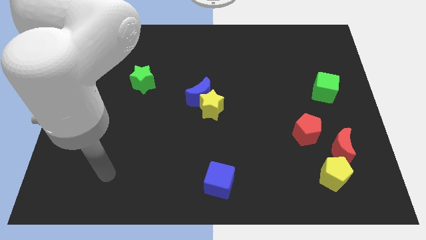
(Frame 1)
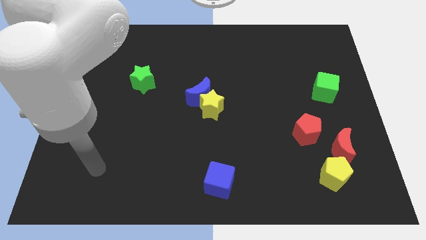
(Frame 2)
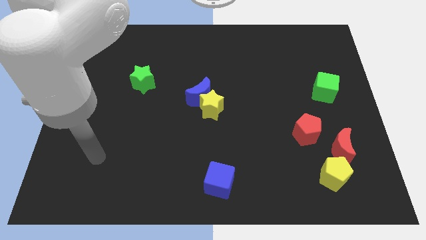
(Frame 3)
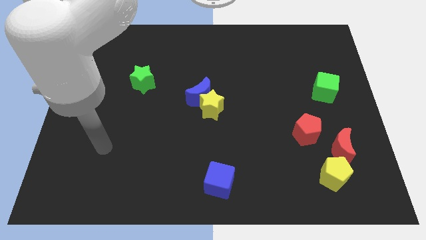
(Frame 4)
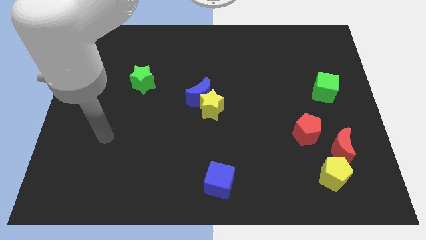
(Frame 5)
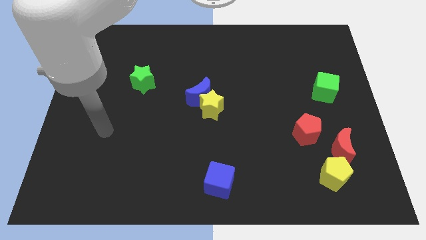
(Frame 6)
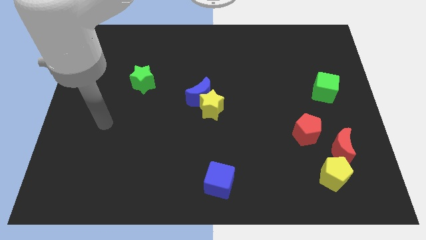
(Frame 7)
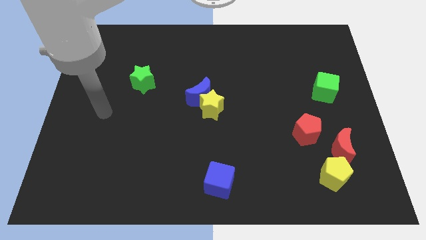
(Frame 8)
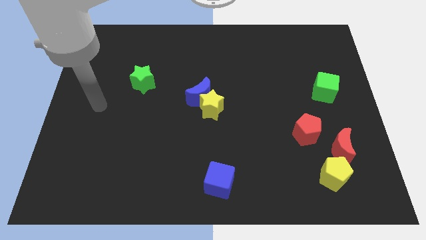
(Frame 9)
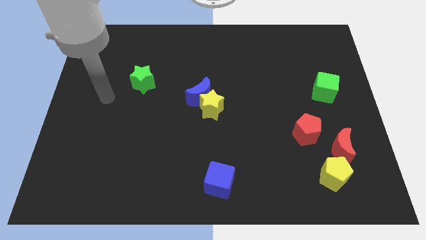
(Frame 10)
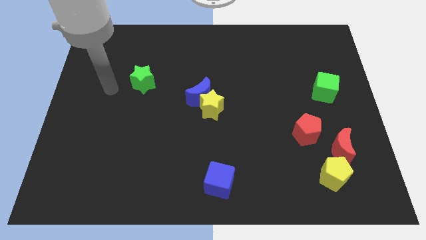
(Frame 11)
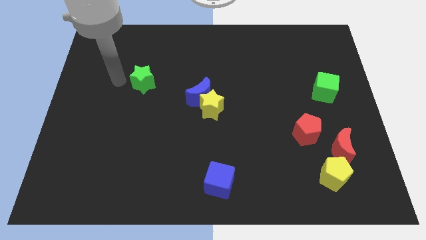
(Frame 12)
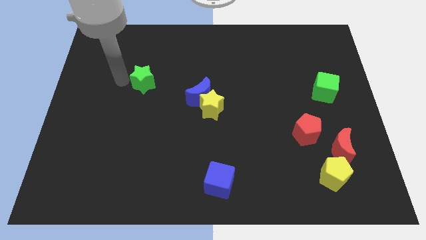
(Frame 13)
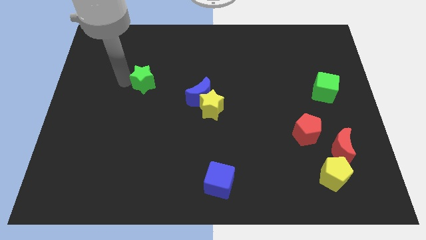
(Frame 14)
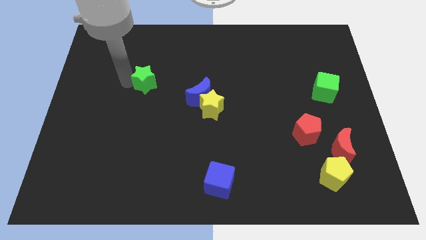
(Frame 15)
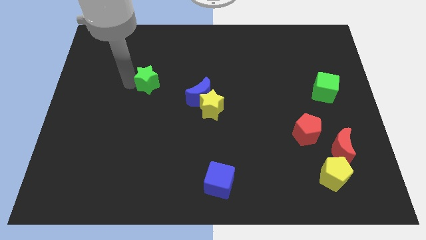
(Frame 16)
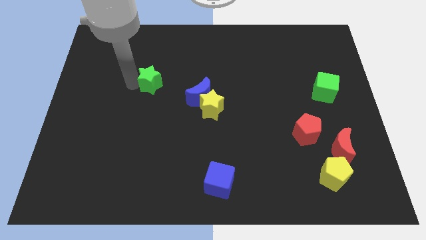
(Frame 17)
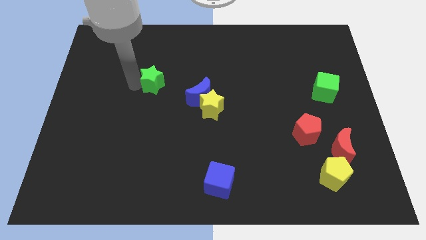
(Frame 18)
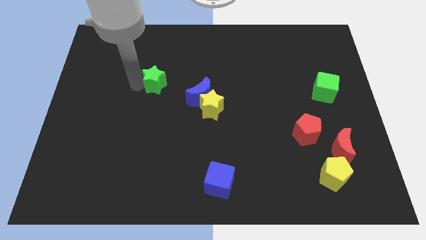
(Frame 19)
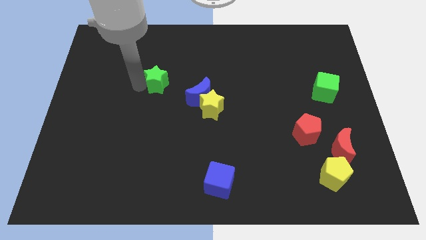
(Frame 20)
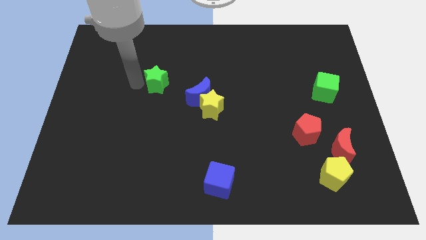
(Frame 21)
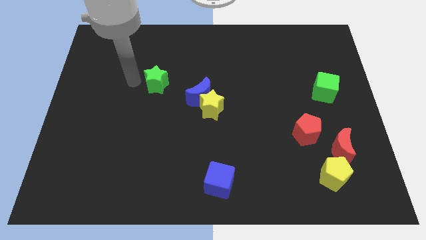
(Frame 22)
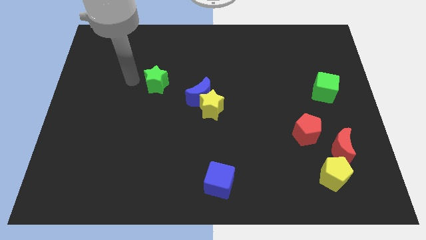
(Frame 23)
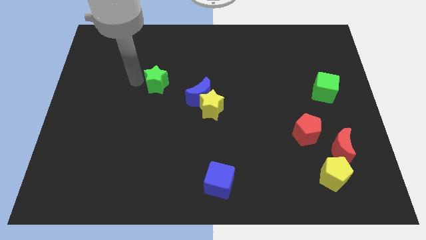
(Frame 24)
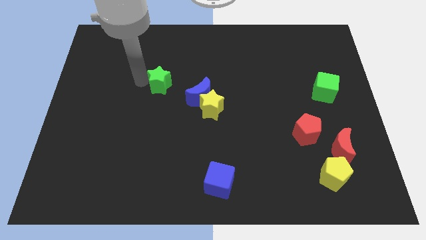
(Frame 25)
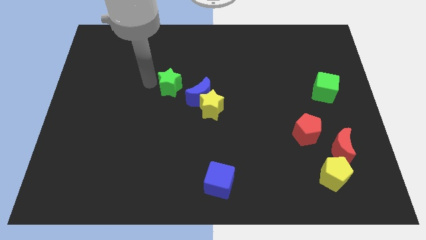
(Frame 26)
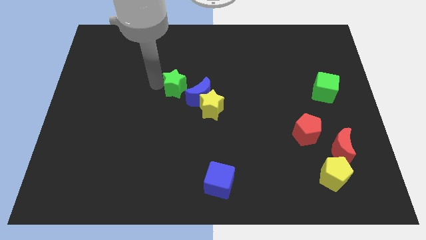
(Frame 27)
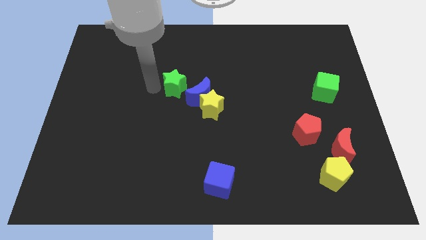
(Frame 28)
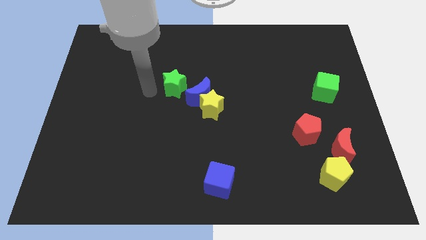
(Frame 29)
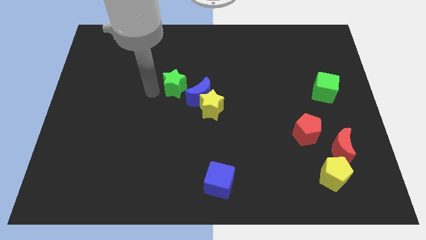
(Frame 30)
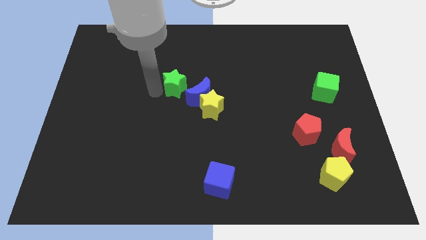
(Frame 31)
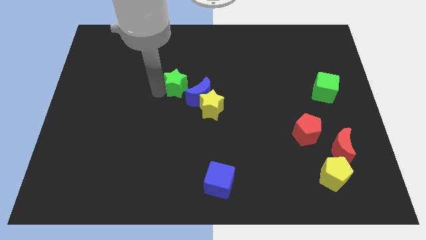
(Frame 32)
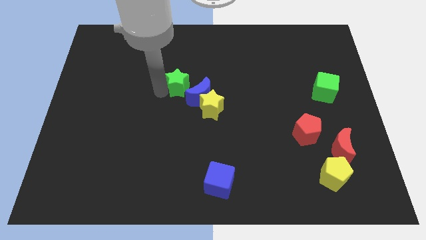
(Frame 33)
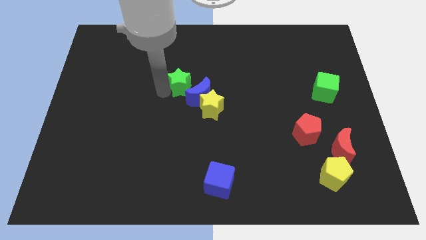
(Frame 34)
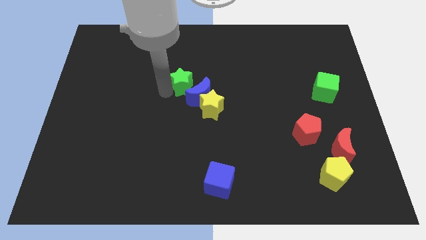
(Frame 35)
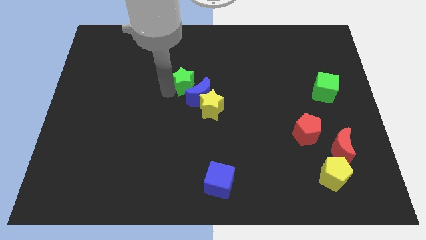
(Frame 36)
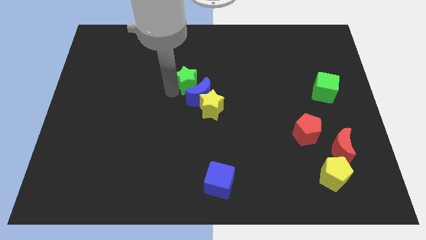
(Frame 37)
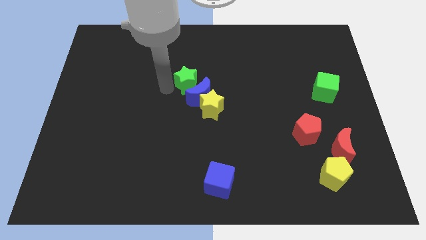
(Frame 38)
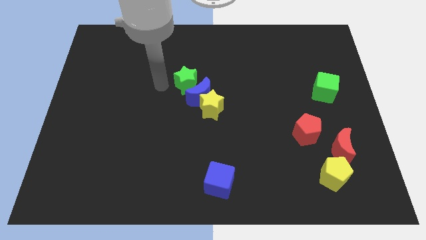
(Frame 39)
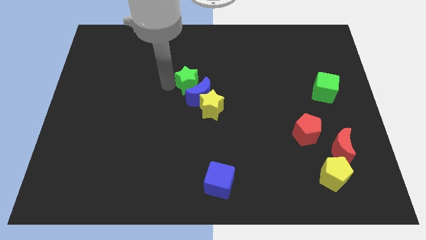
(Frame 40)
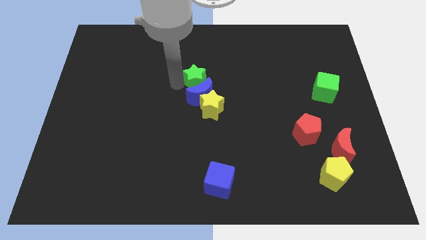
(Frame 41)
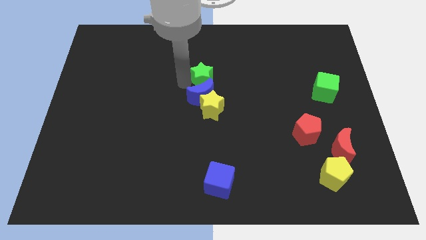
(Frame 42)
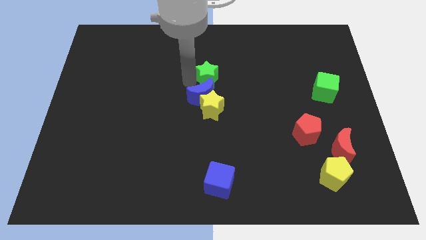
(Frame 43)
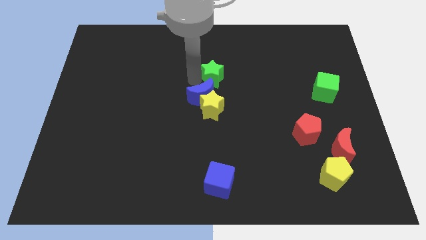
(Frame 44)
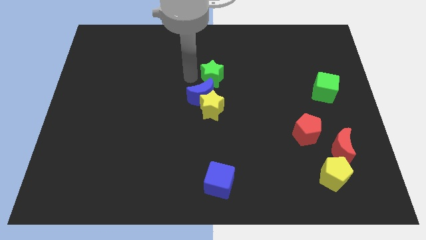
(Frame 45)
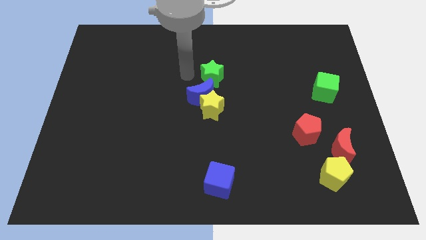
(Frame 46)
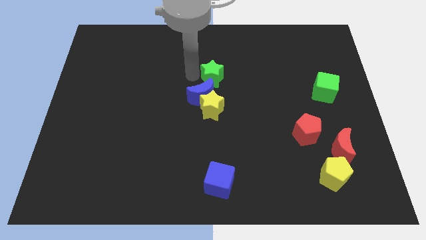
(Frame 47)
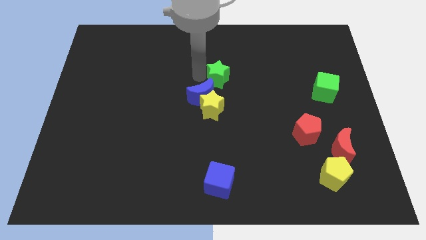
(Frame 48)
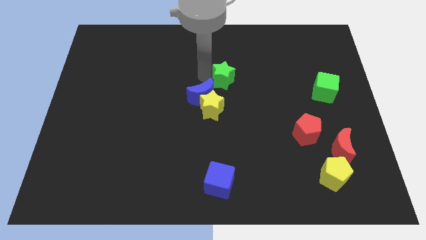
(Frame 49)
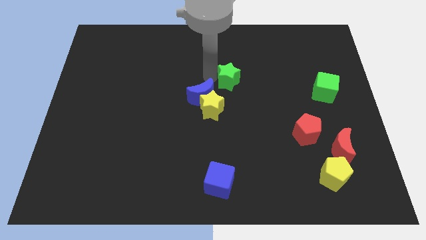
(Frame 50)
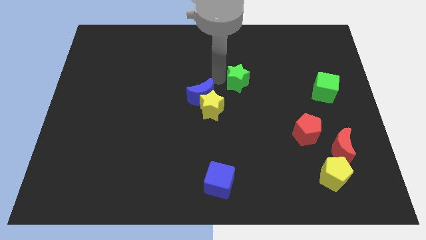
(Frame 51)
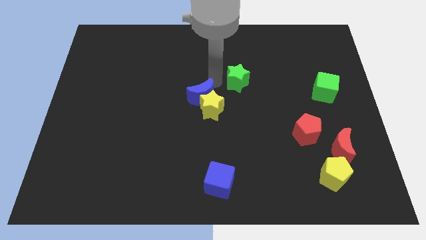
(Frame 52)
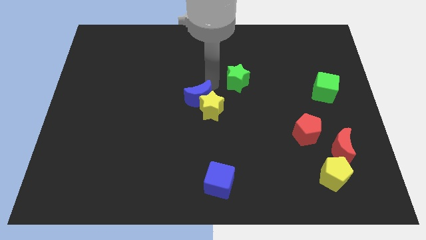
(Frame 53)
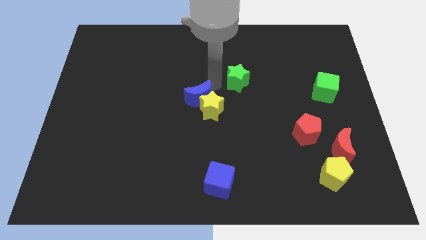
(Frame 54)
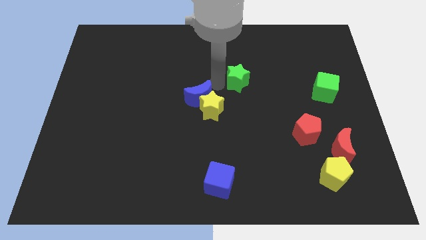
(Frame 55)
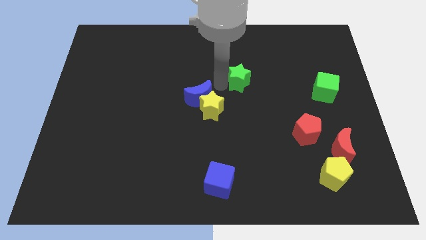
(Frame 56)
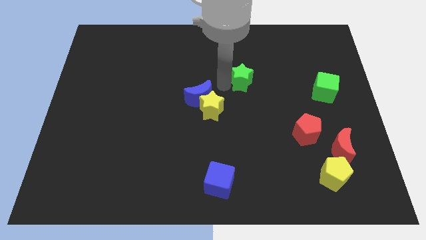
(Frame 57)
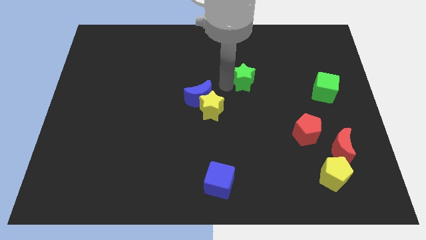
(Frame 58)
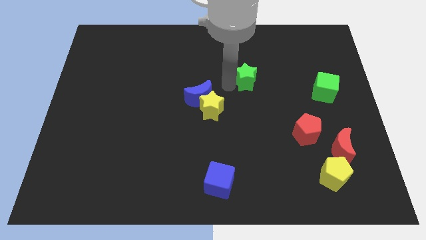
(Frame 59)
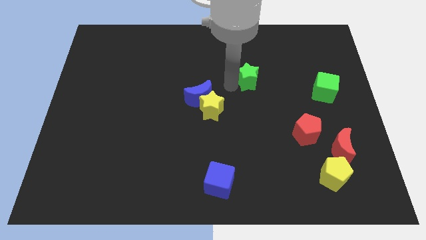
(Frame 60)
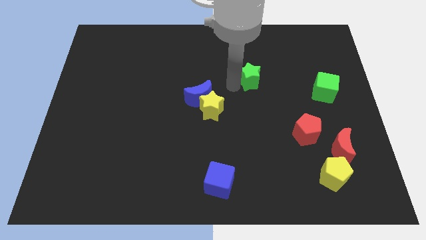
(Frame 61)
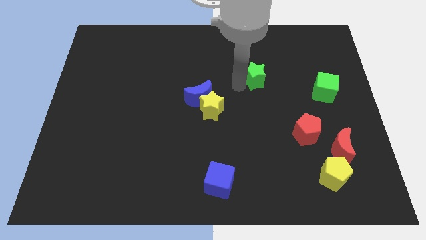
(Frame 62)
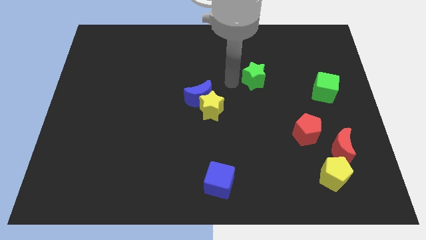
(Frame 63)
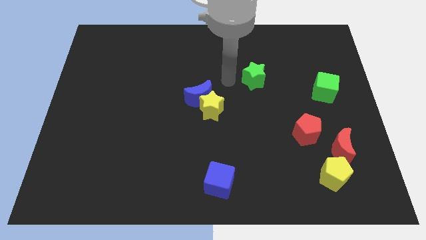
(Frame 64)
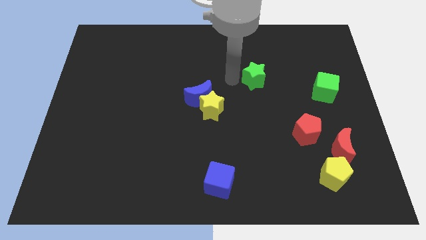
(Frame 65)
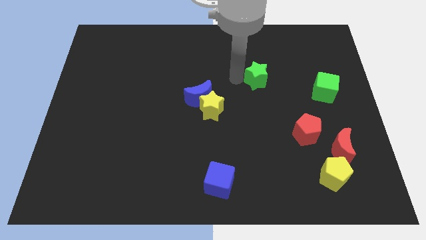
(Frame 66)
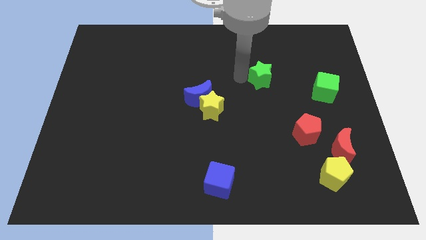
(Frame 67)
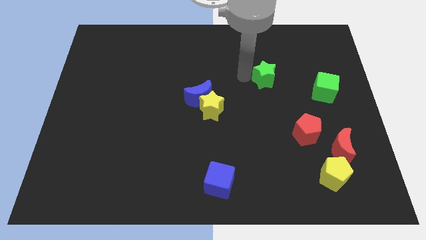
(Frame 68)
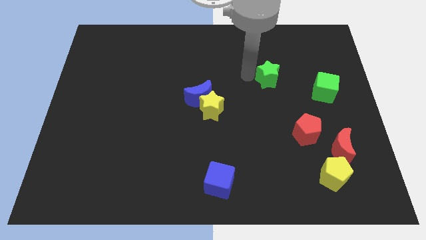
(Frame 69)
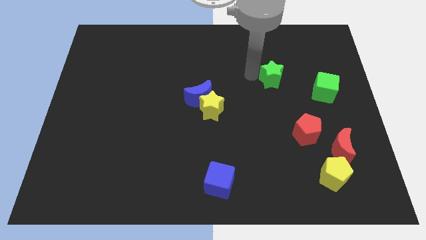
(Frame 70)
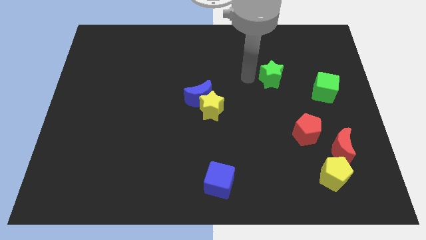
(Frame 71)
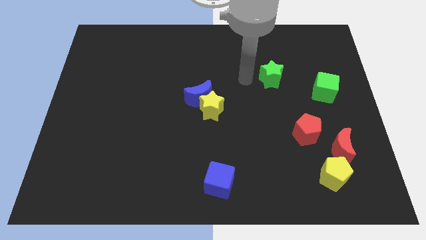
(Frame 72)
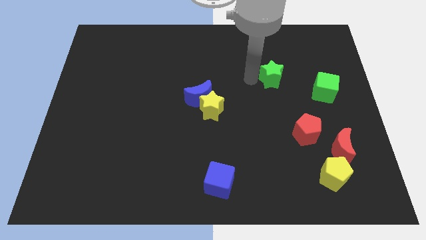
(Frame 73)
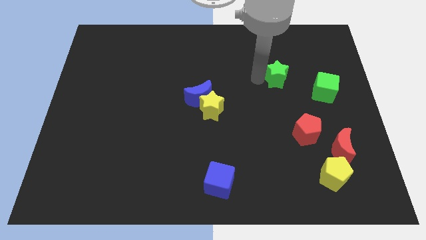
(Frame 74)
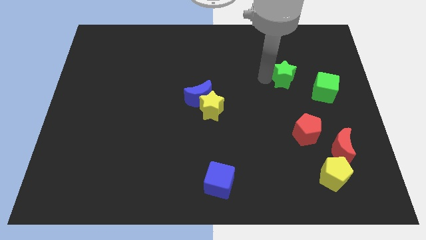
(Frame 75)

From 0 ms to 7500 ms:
slide the green star to the top left of the green cube

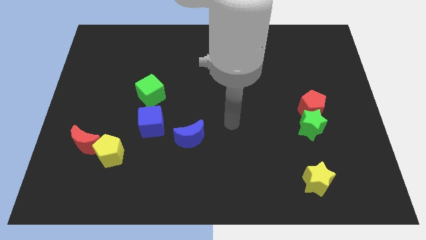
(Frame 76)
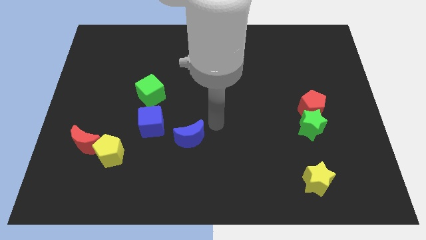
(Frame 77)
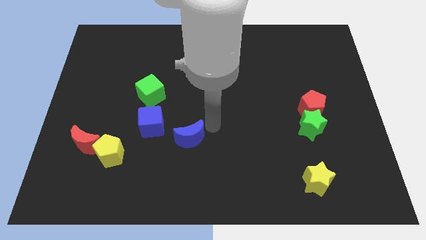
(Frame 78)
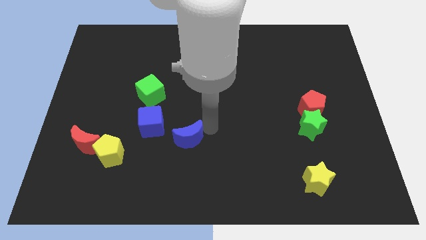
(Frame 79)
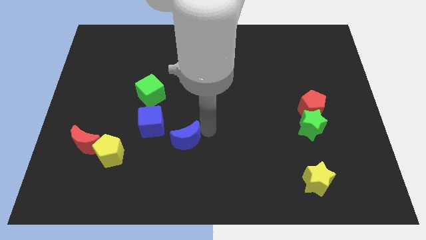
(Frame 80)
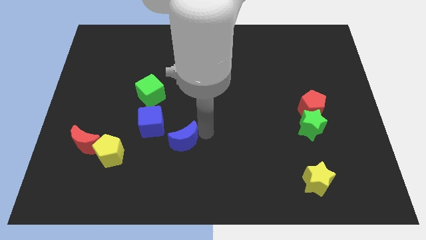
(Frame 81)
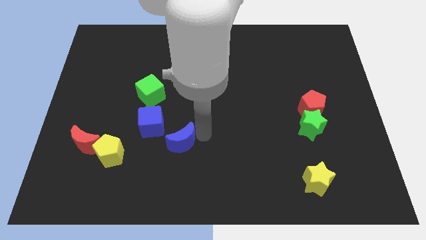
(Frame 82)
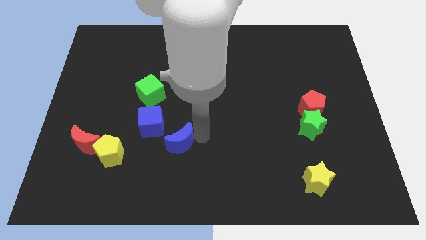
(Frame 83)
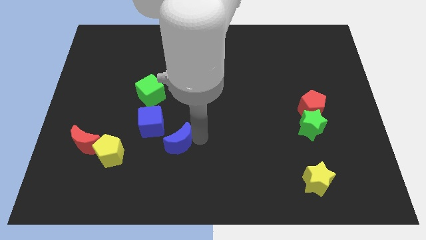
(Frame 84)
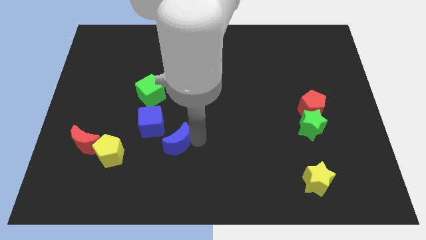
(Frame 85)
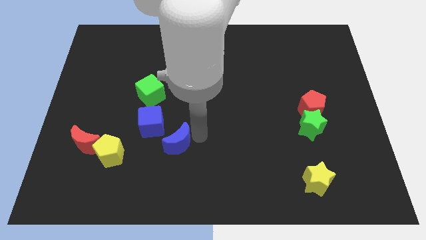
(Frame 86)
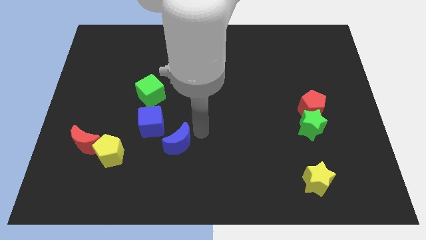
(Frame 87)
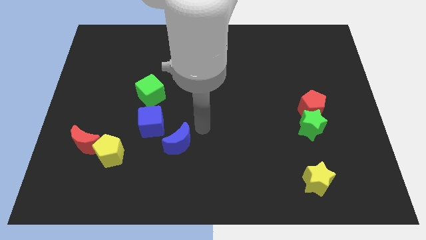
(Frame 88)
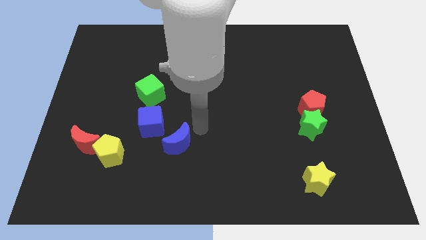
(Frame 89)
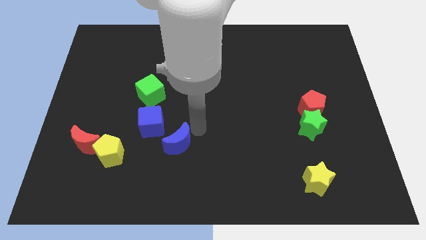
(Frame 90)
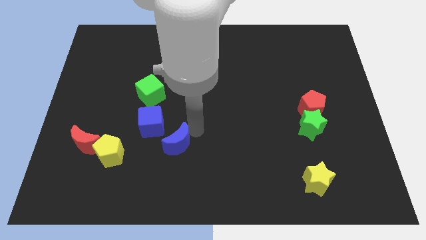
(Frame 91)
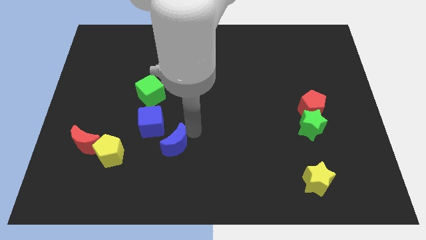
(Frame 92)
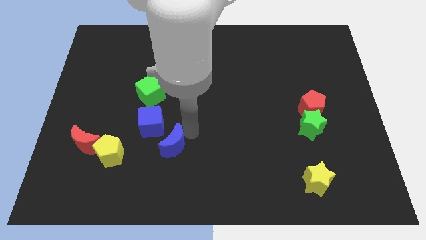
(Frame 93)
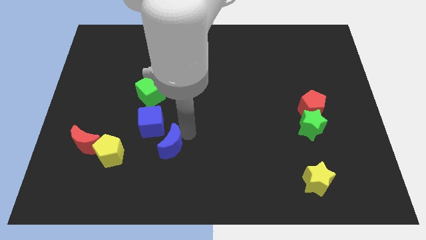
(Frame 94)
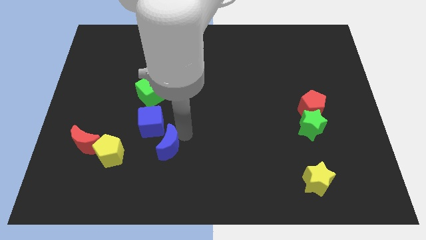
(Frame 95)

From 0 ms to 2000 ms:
slide the blue moon to the bottom side of the blue cube
